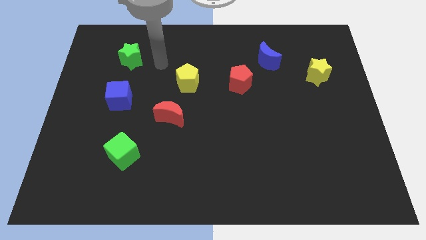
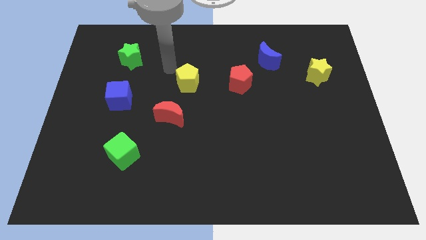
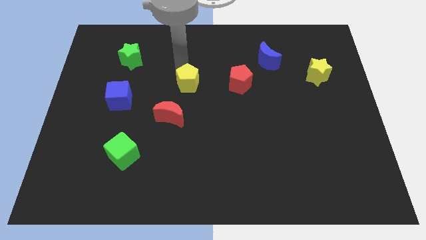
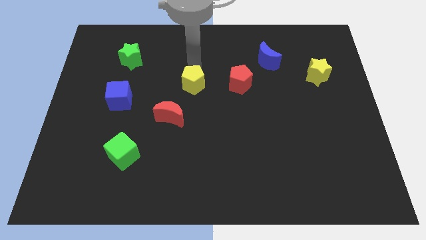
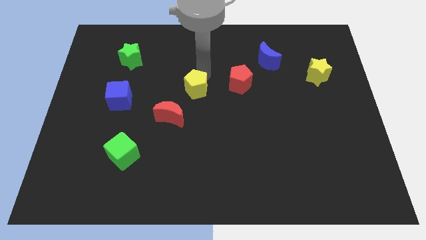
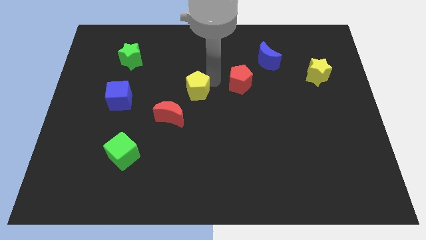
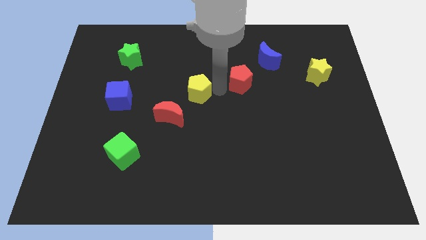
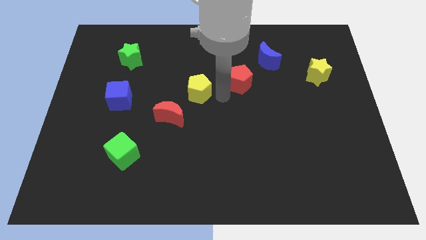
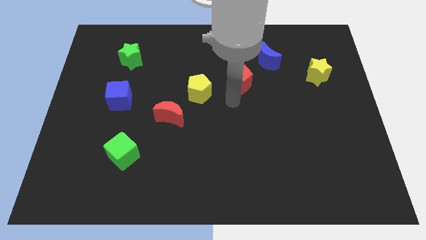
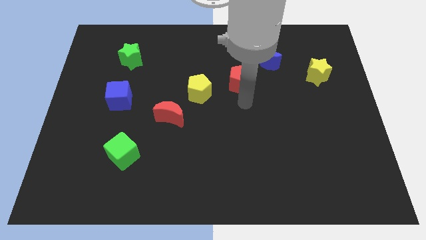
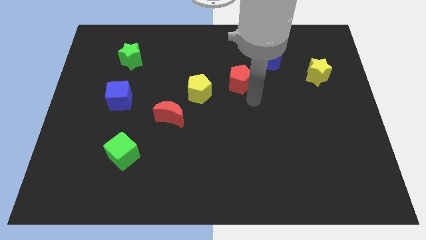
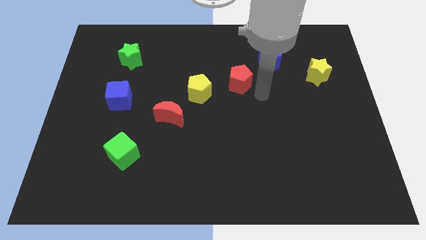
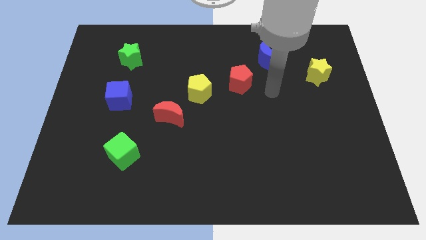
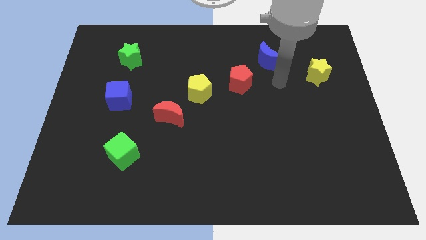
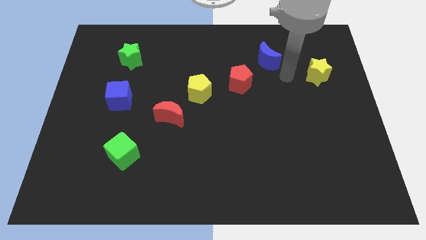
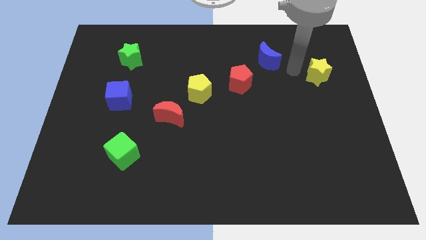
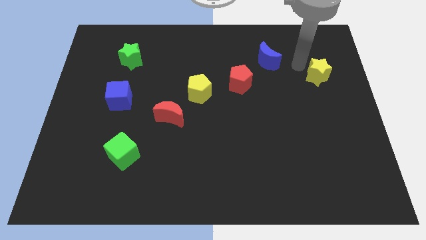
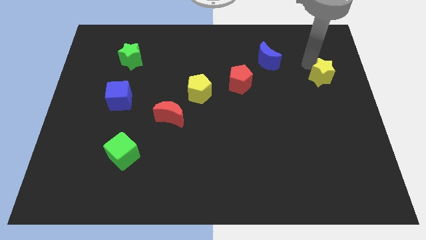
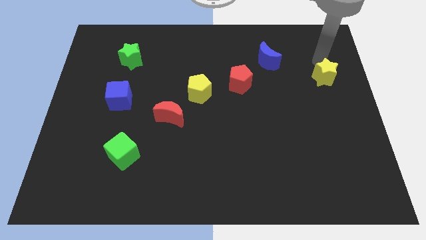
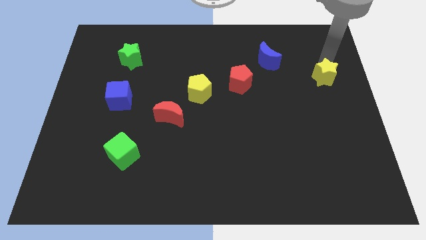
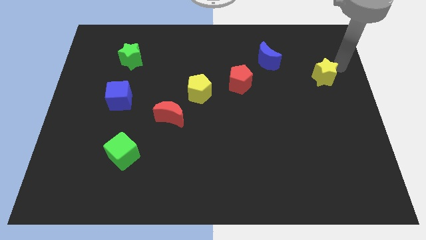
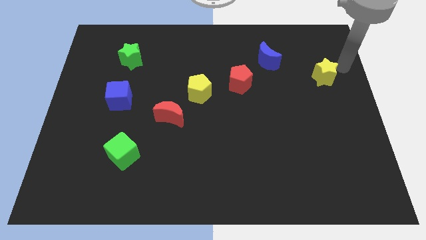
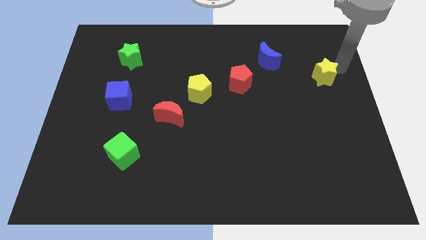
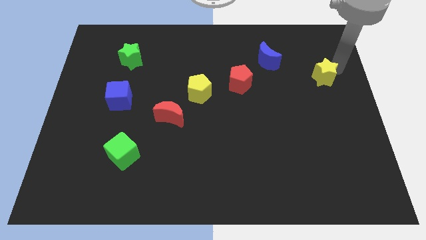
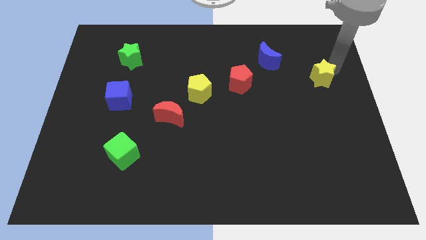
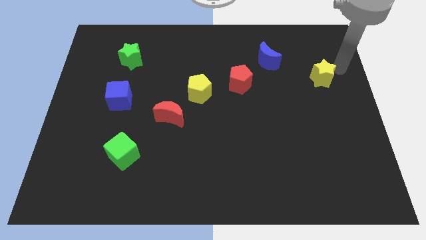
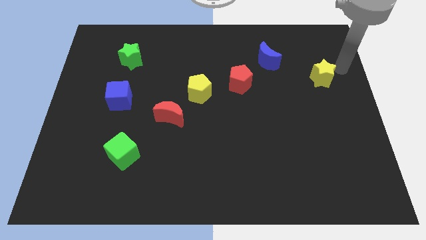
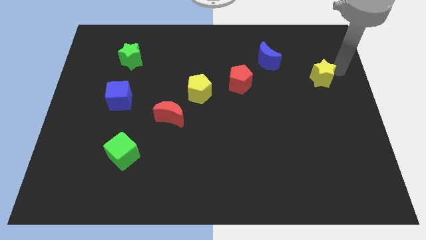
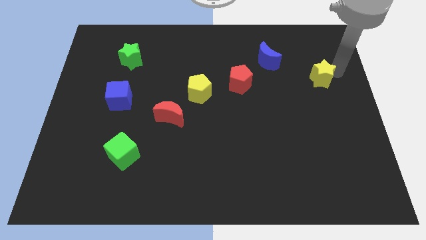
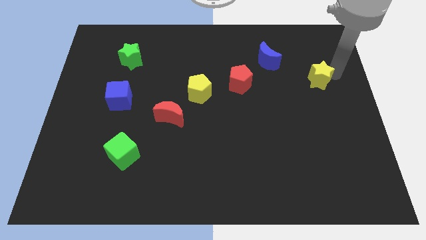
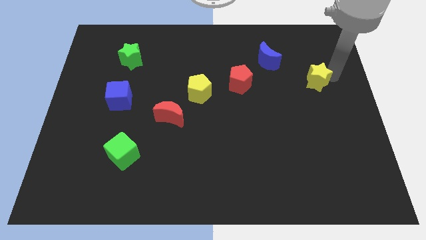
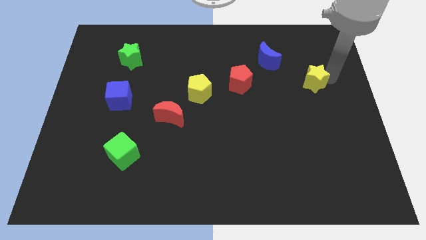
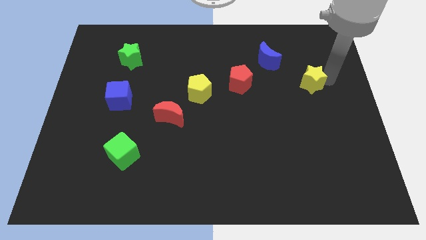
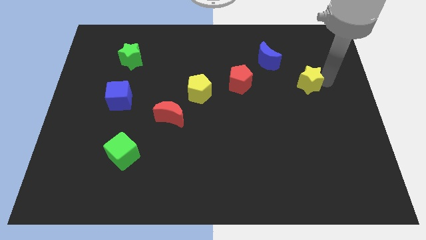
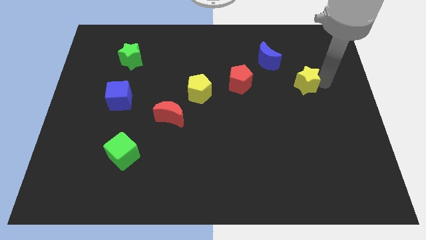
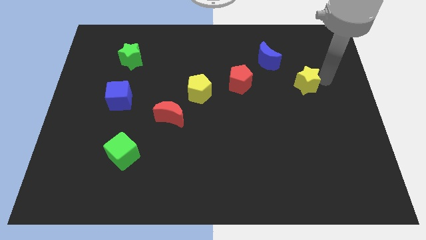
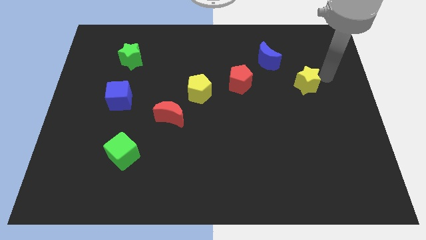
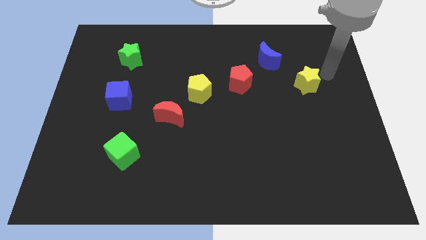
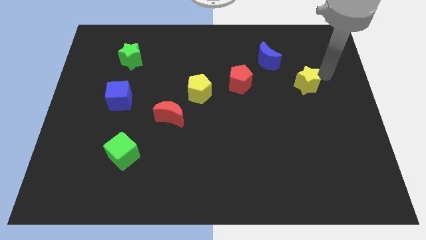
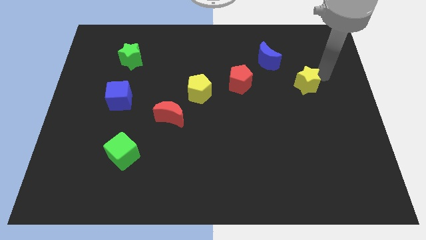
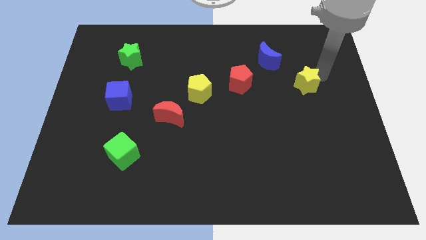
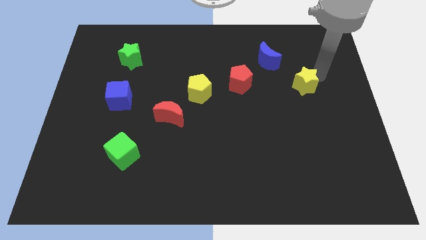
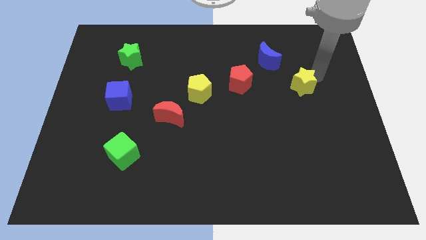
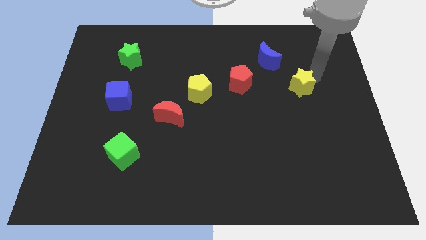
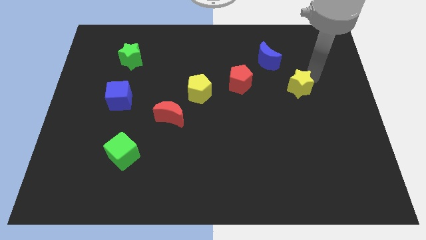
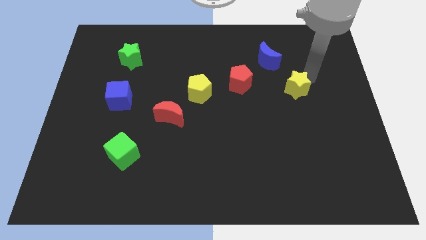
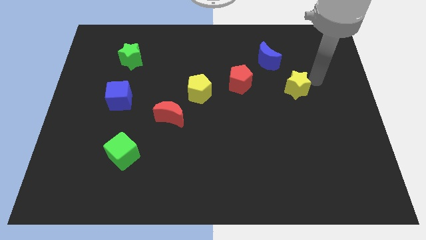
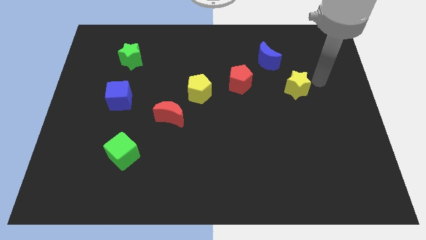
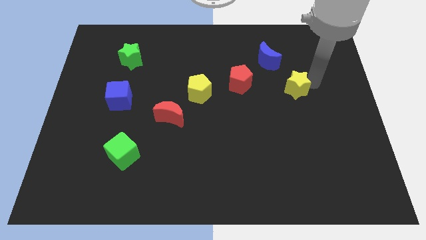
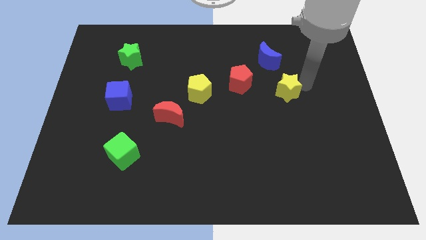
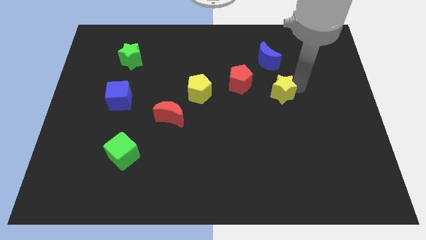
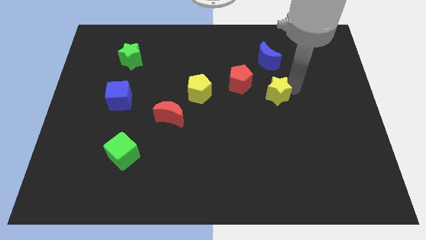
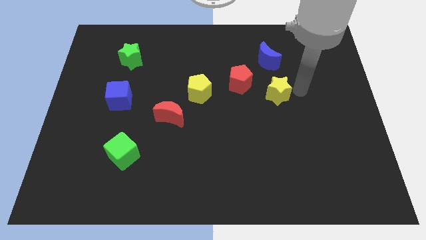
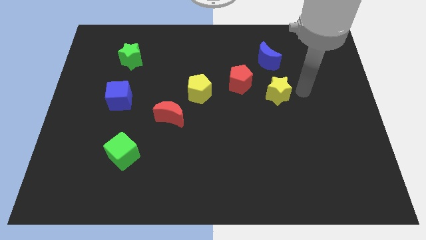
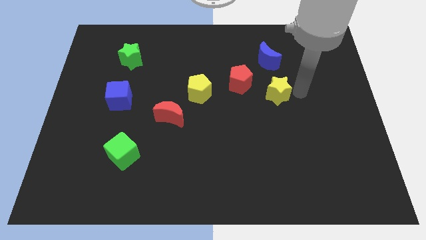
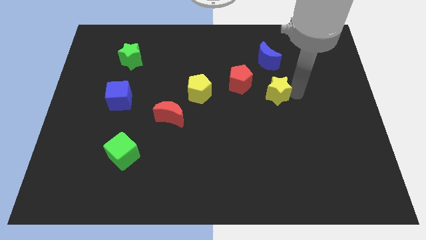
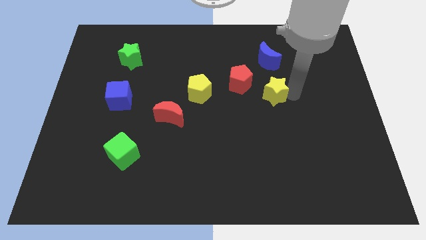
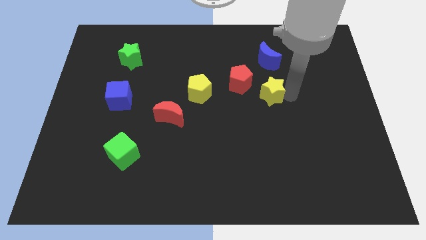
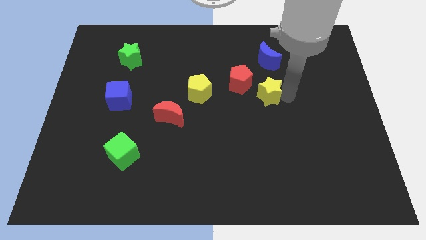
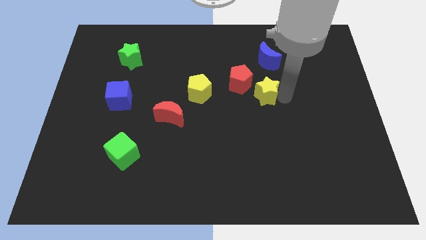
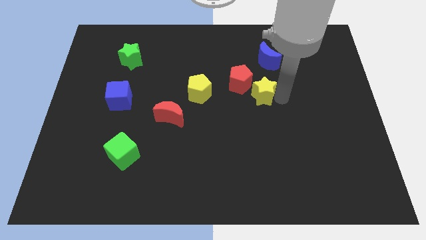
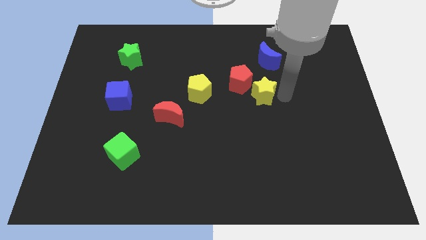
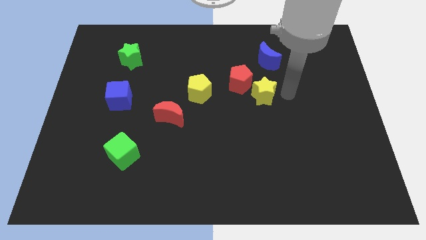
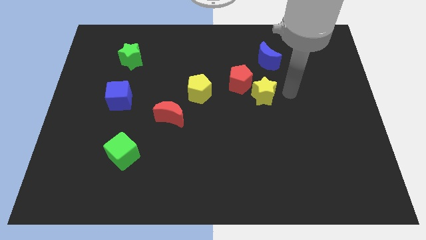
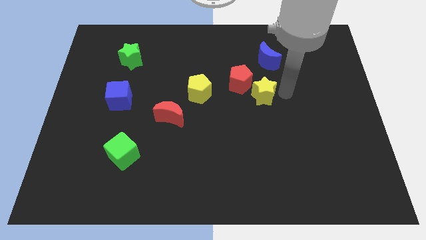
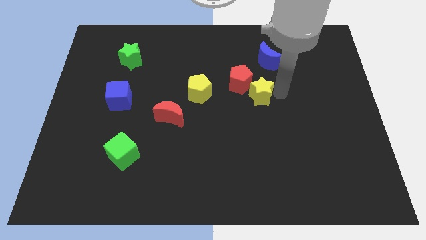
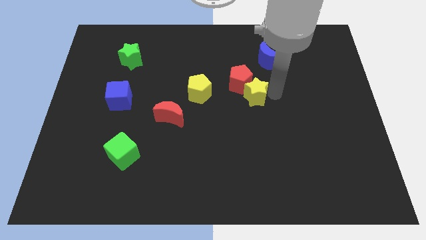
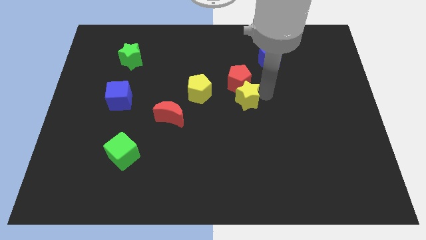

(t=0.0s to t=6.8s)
put the yellow star to the bottom left of the red pentagon

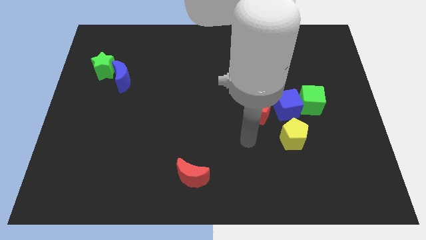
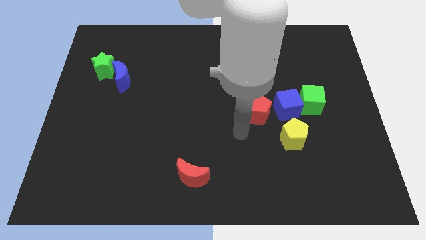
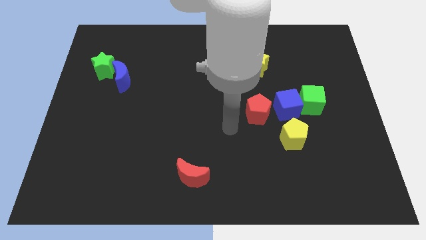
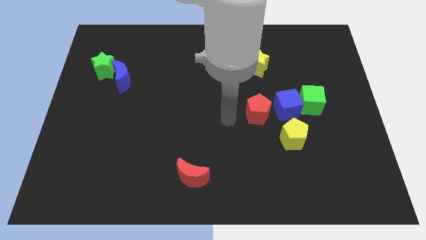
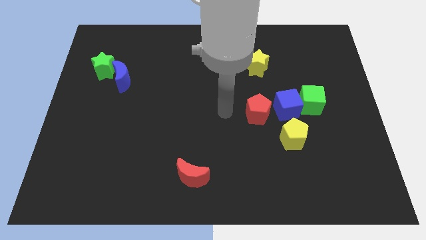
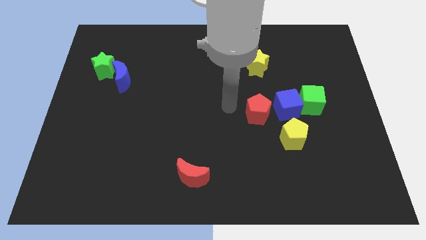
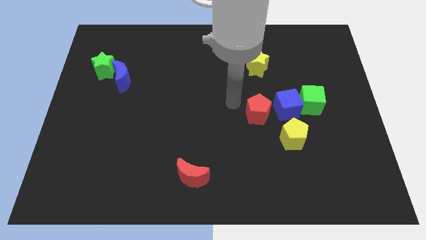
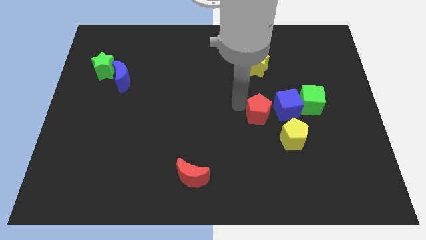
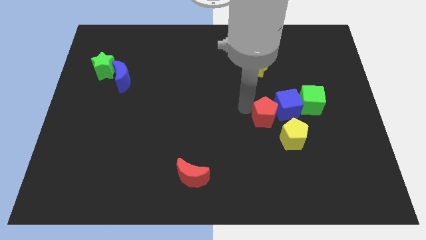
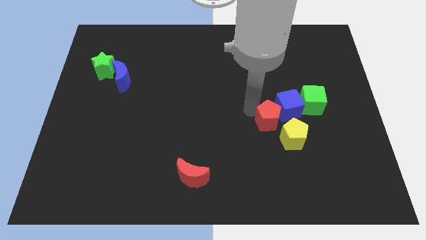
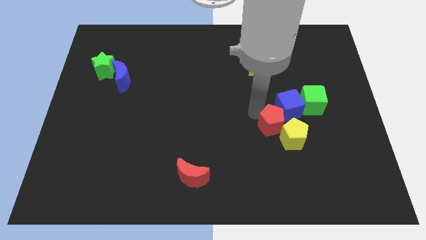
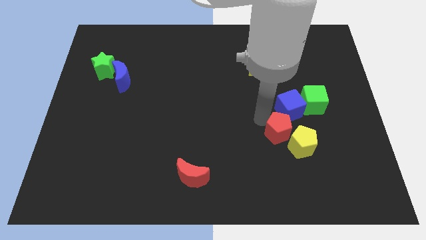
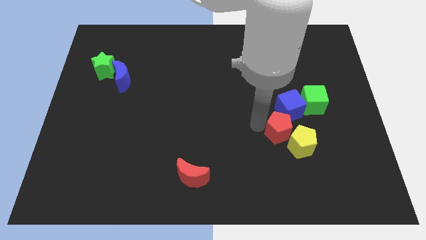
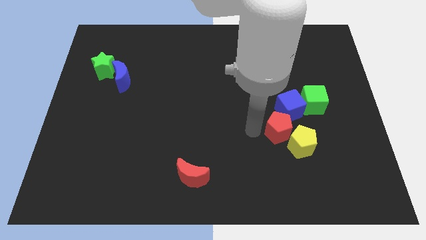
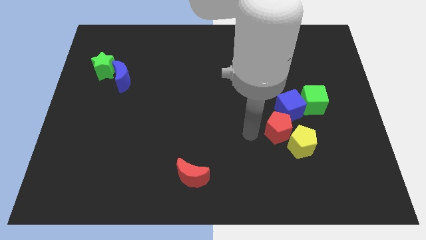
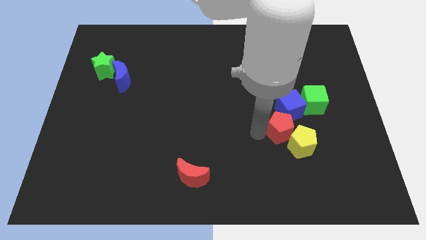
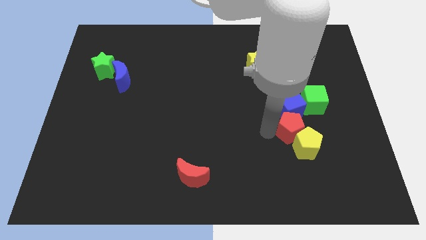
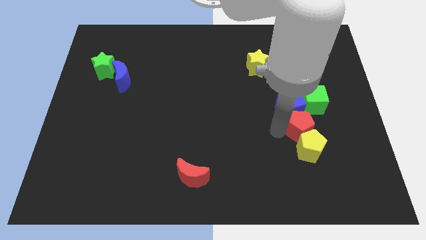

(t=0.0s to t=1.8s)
push the red pentagon to the top right side of the yellow pentagon
